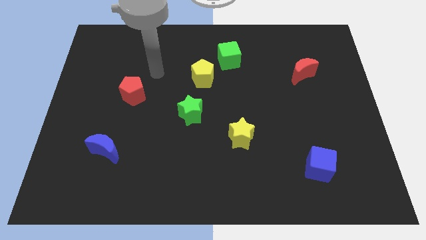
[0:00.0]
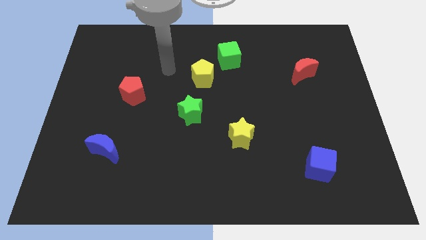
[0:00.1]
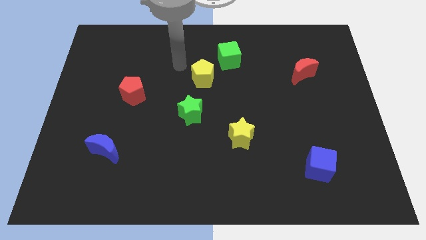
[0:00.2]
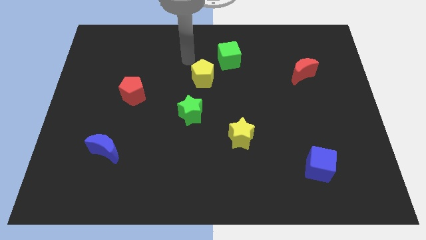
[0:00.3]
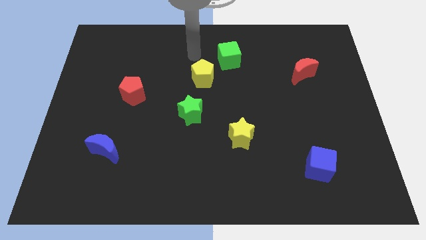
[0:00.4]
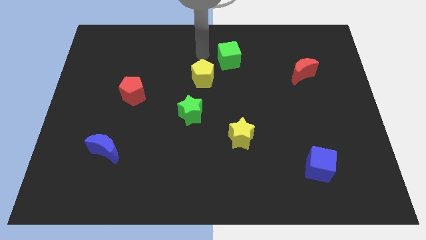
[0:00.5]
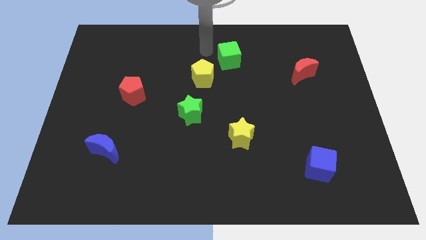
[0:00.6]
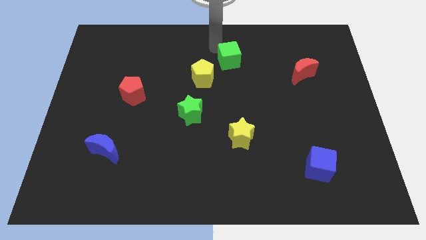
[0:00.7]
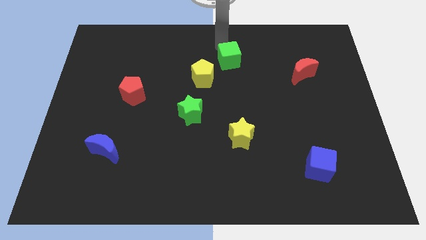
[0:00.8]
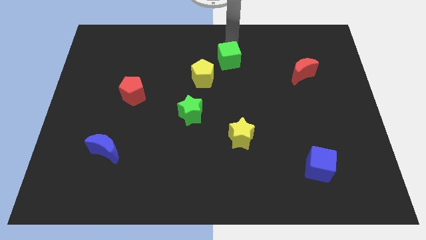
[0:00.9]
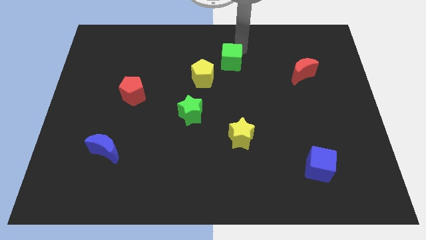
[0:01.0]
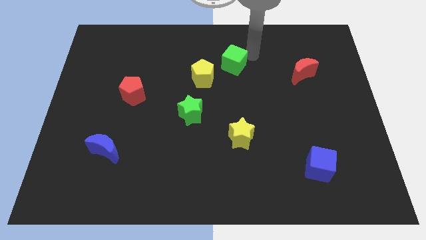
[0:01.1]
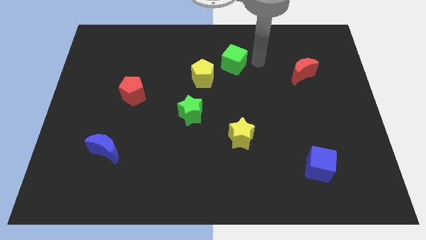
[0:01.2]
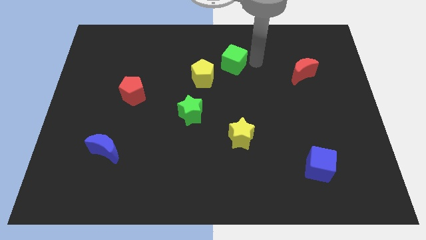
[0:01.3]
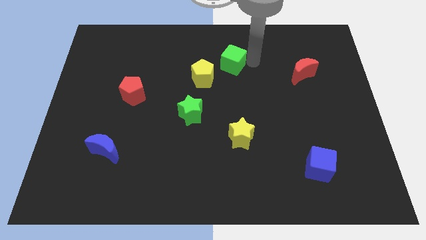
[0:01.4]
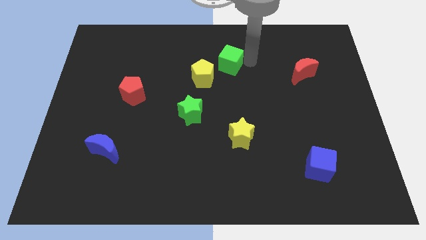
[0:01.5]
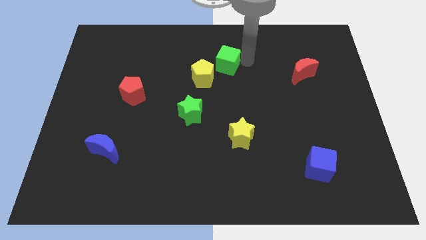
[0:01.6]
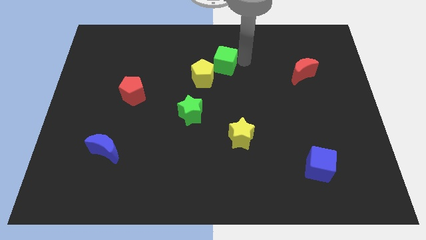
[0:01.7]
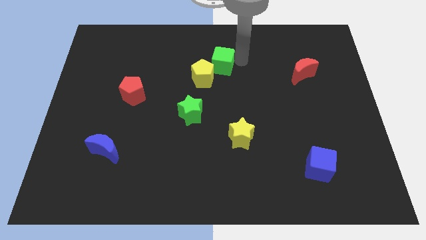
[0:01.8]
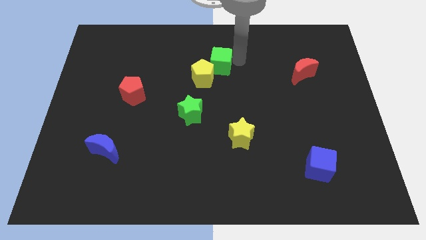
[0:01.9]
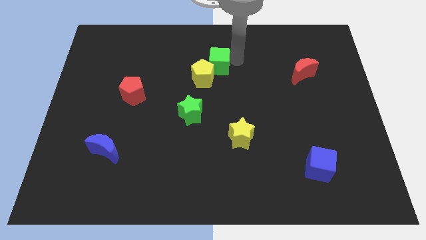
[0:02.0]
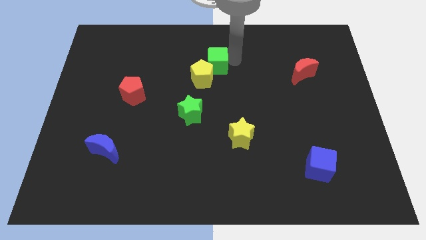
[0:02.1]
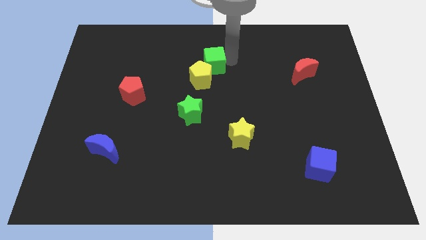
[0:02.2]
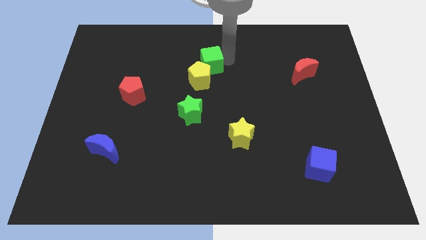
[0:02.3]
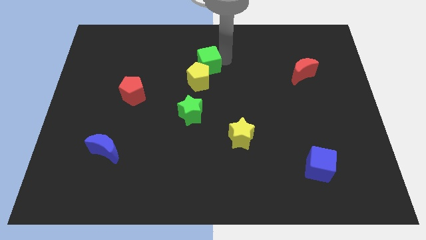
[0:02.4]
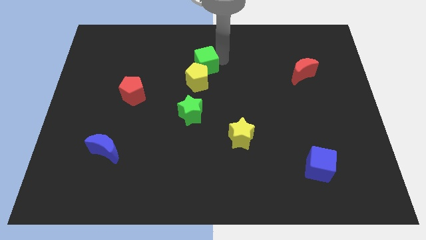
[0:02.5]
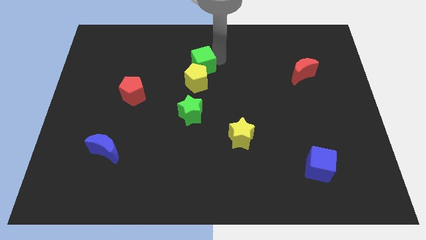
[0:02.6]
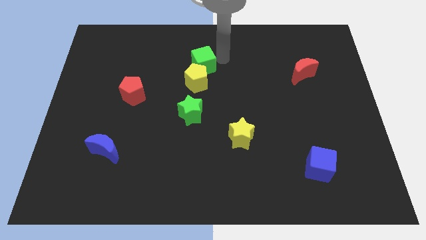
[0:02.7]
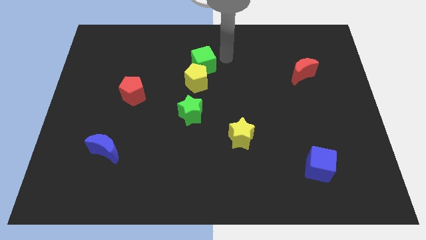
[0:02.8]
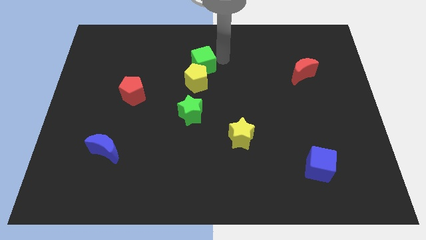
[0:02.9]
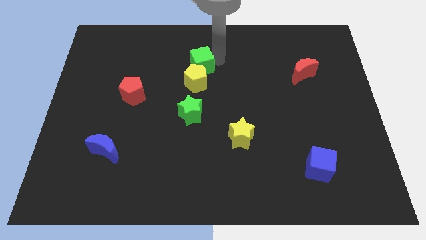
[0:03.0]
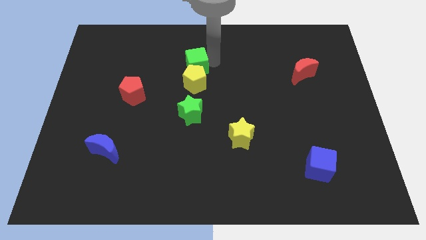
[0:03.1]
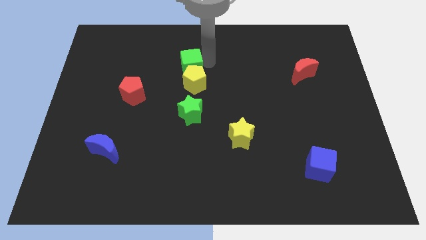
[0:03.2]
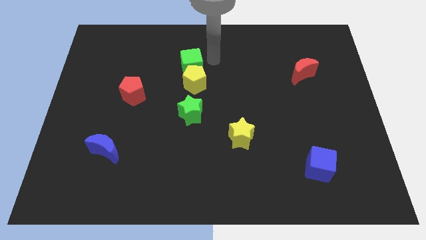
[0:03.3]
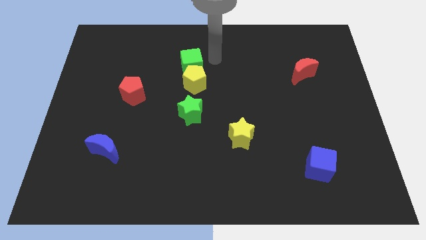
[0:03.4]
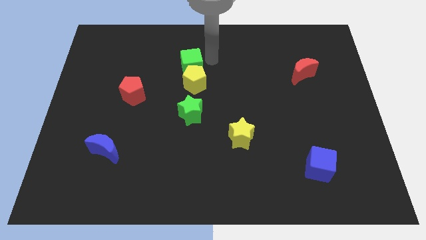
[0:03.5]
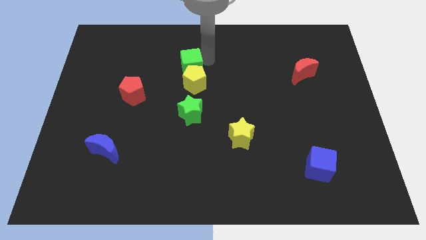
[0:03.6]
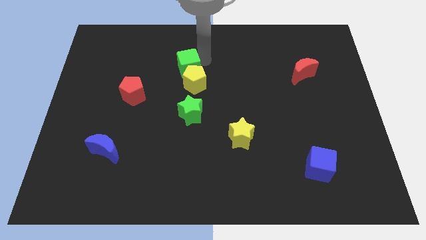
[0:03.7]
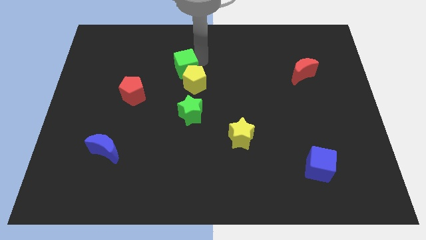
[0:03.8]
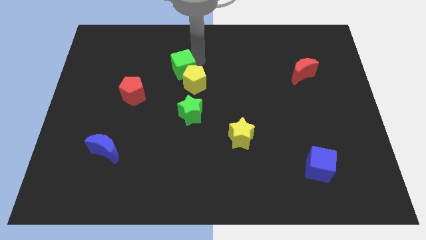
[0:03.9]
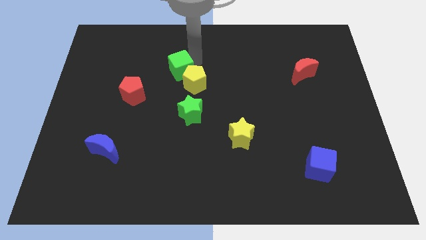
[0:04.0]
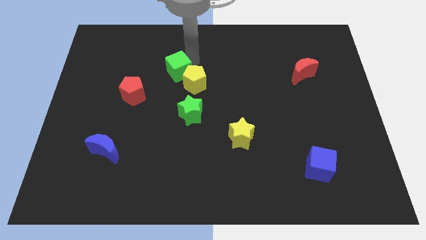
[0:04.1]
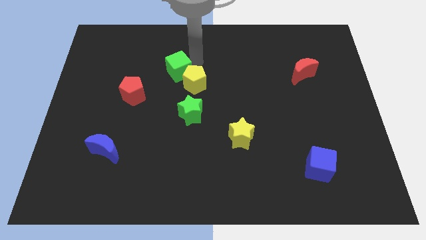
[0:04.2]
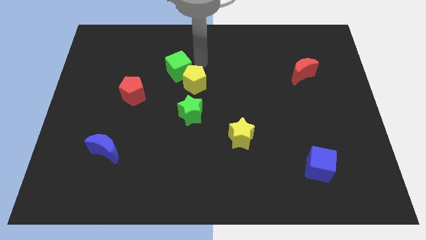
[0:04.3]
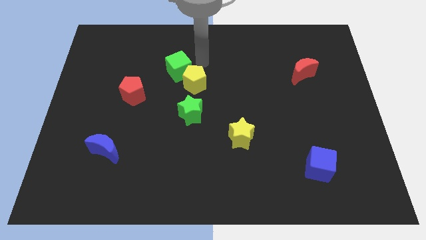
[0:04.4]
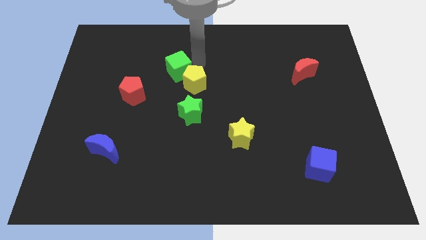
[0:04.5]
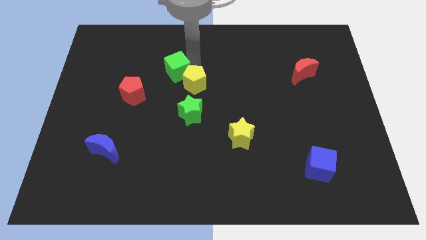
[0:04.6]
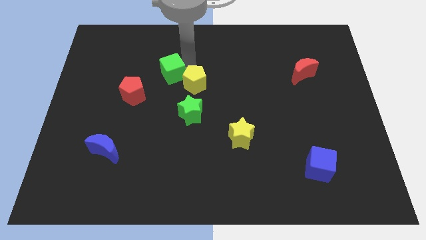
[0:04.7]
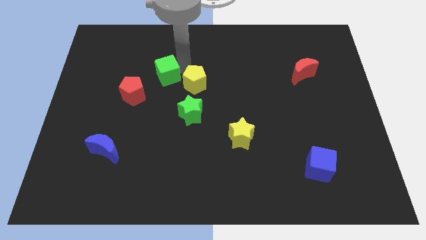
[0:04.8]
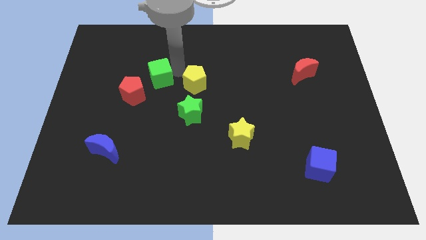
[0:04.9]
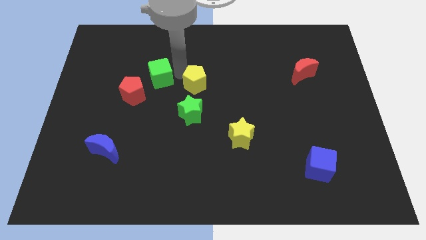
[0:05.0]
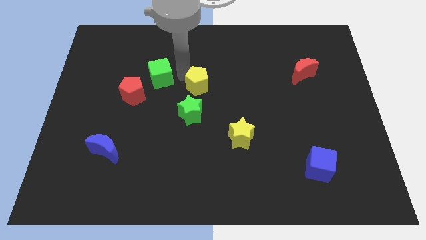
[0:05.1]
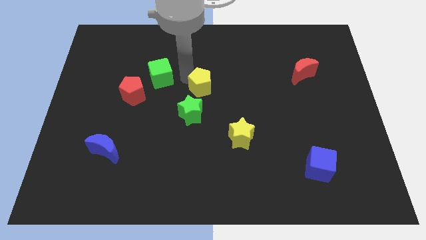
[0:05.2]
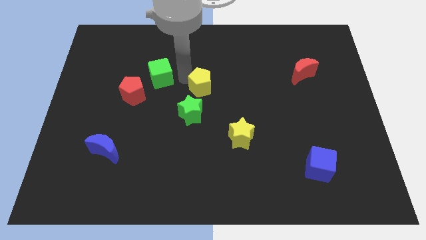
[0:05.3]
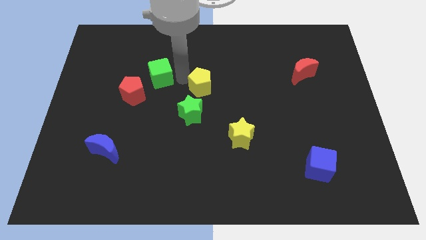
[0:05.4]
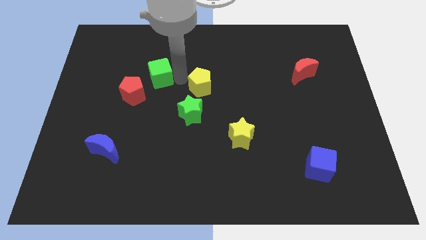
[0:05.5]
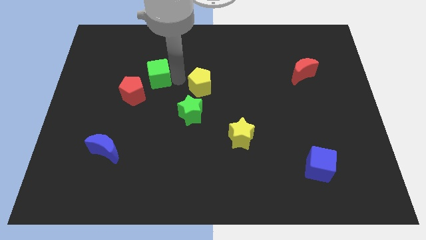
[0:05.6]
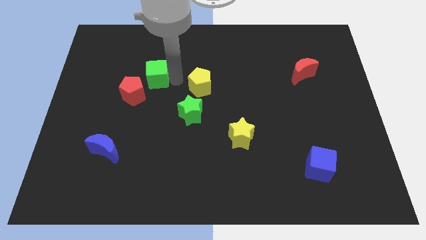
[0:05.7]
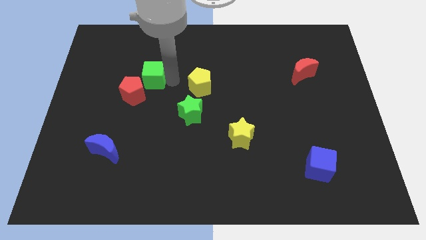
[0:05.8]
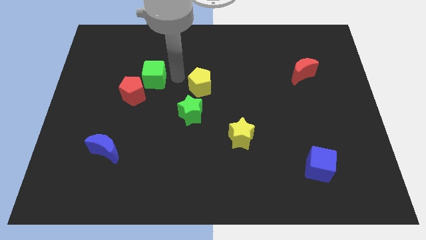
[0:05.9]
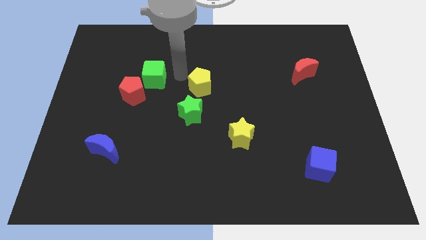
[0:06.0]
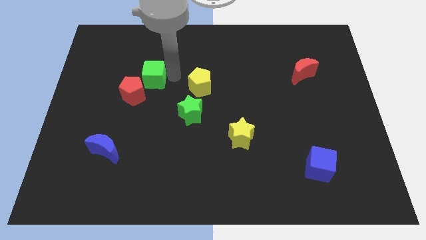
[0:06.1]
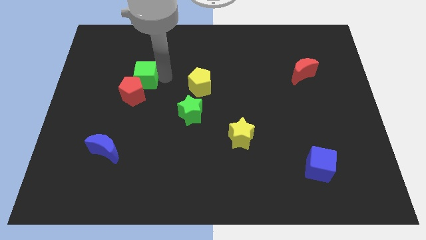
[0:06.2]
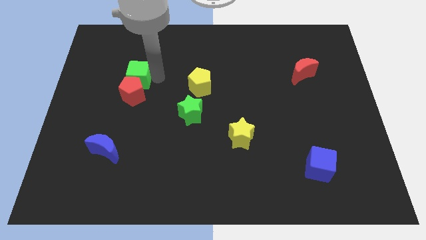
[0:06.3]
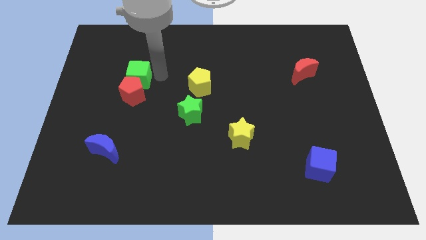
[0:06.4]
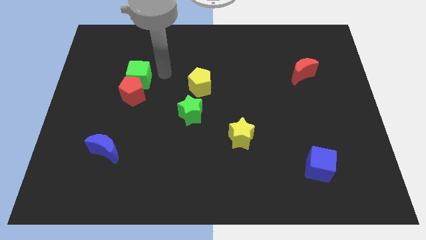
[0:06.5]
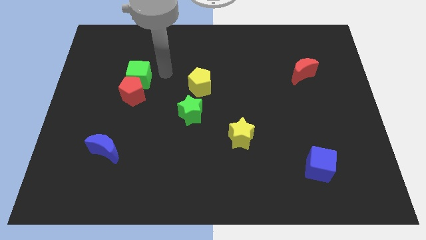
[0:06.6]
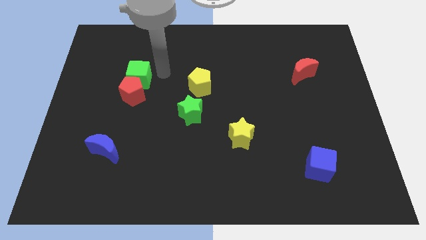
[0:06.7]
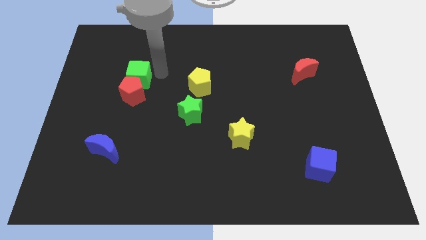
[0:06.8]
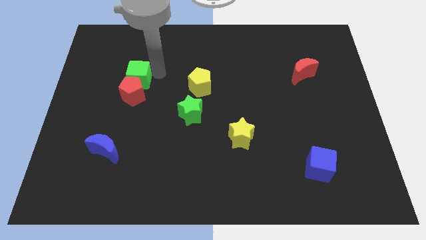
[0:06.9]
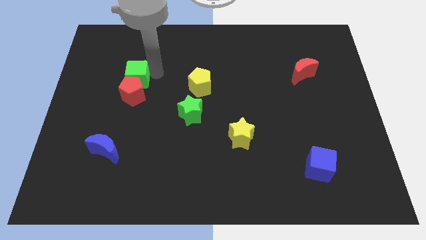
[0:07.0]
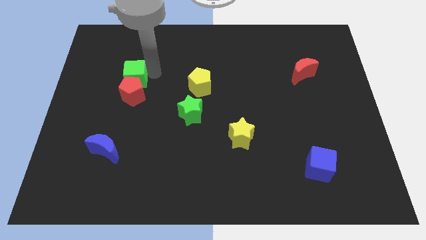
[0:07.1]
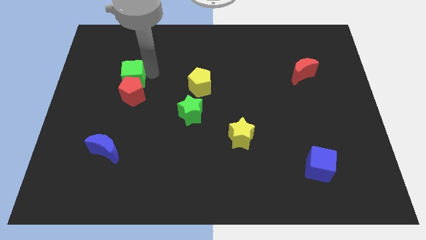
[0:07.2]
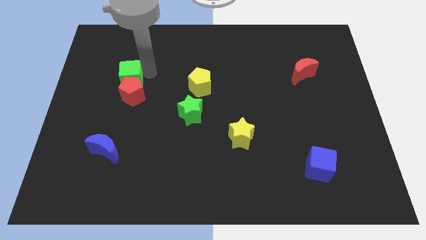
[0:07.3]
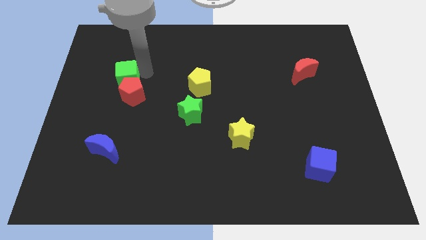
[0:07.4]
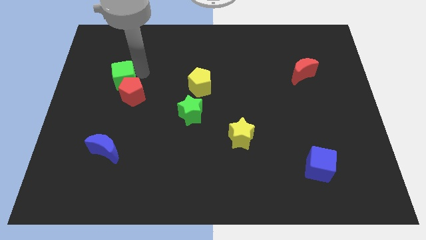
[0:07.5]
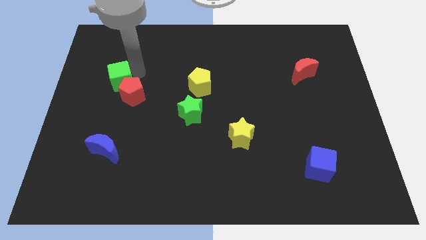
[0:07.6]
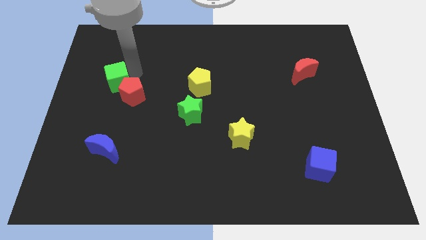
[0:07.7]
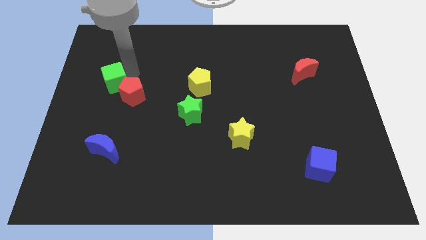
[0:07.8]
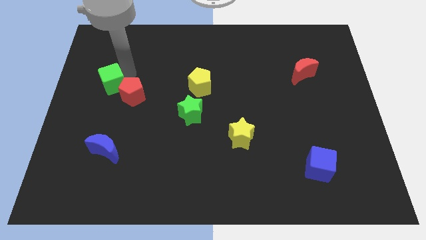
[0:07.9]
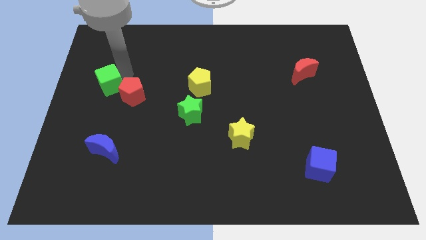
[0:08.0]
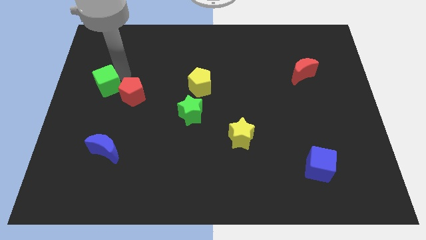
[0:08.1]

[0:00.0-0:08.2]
push the green cube to the left side of the board
